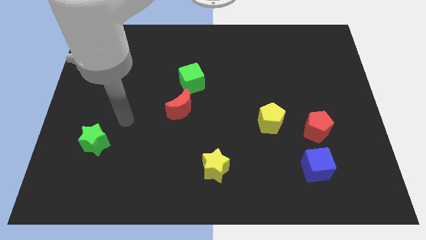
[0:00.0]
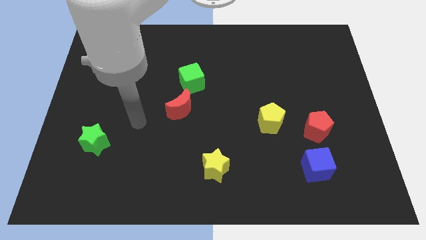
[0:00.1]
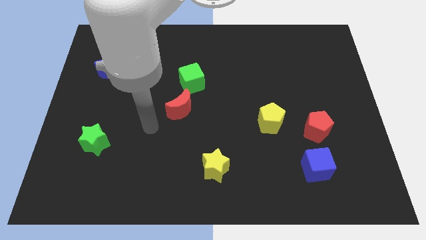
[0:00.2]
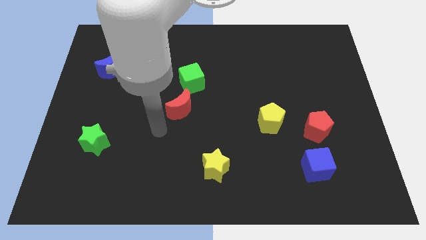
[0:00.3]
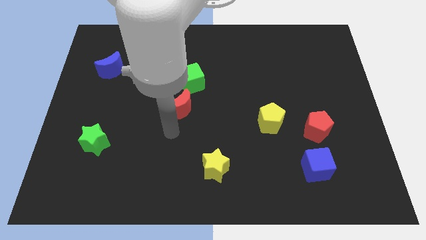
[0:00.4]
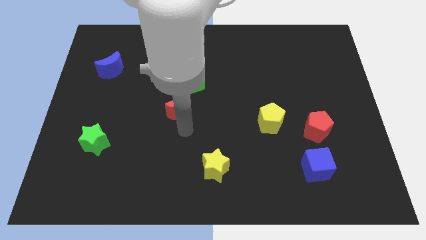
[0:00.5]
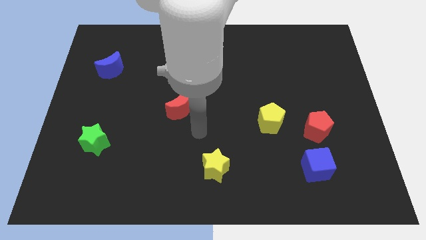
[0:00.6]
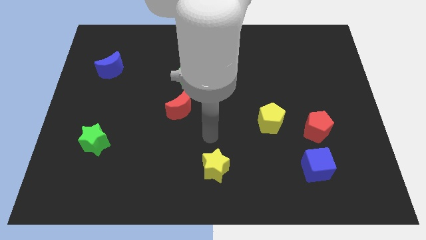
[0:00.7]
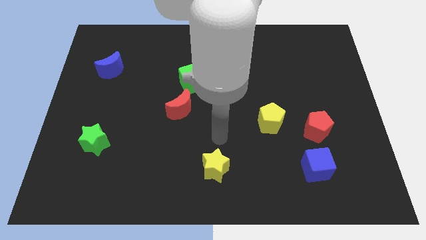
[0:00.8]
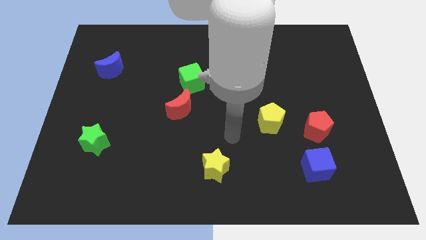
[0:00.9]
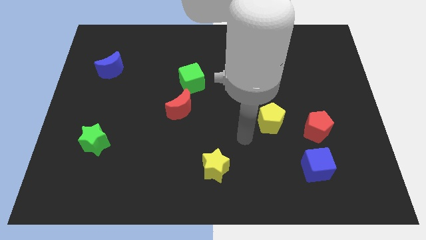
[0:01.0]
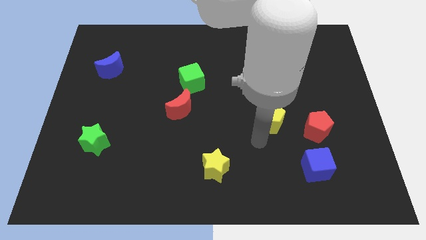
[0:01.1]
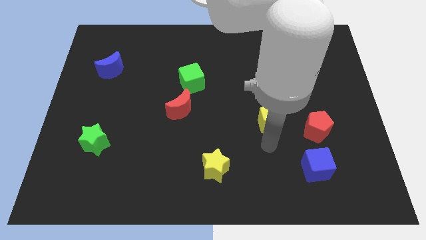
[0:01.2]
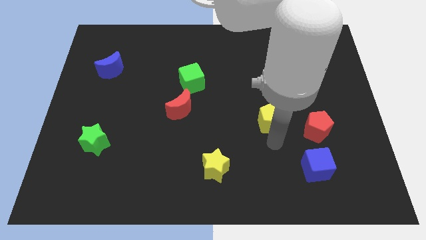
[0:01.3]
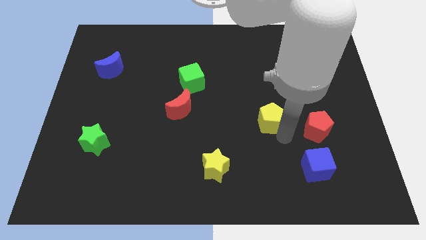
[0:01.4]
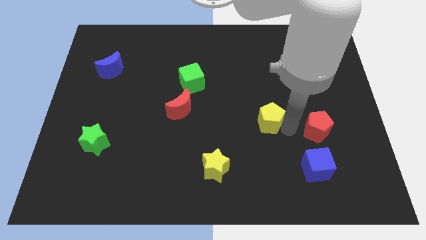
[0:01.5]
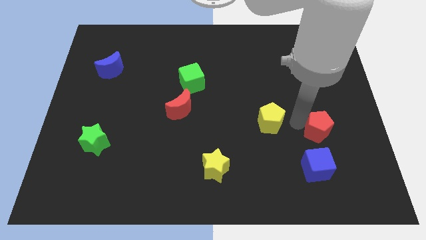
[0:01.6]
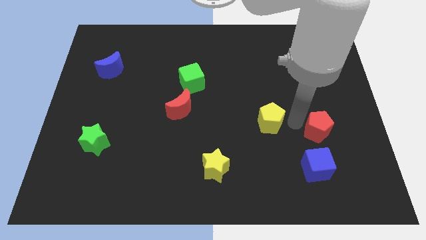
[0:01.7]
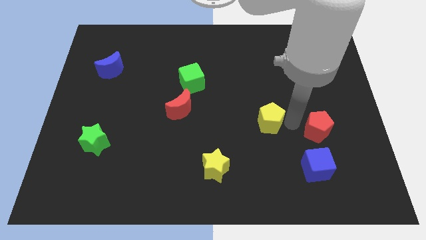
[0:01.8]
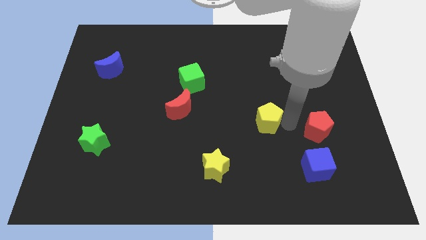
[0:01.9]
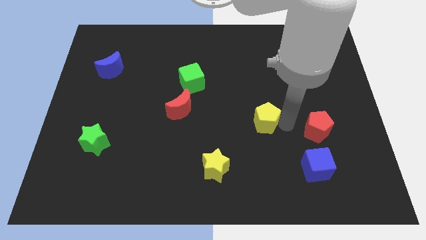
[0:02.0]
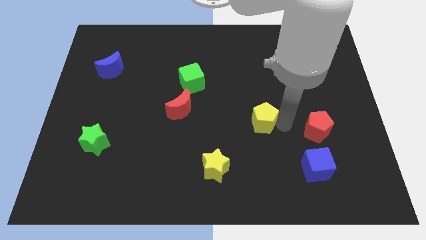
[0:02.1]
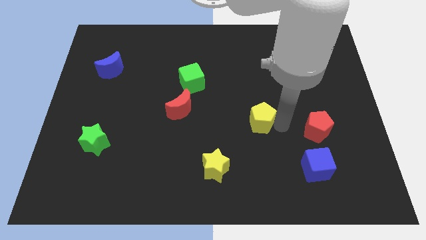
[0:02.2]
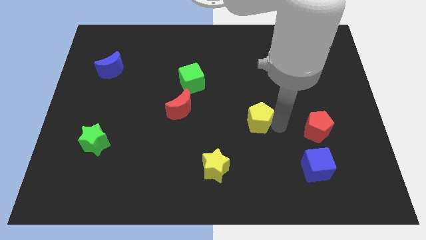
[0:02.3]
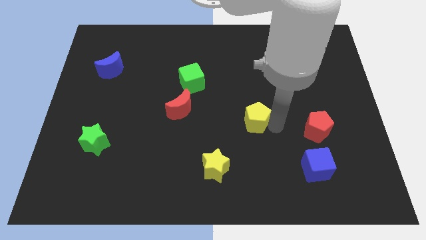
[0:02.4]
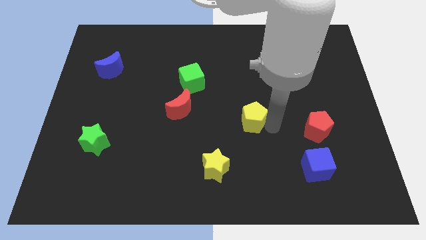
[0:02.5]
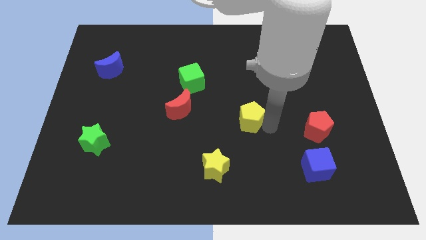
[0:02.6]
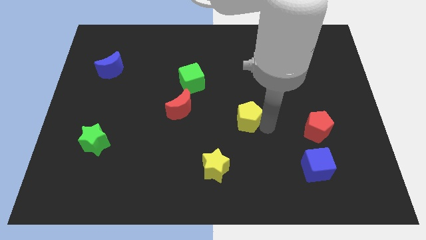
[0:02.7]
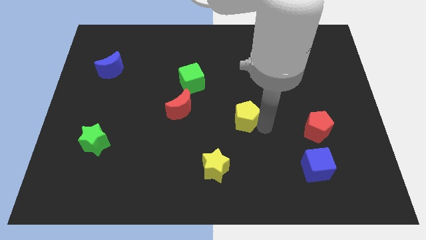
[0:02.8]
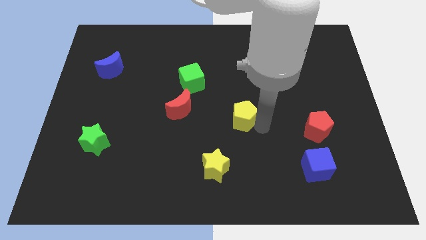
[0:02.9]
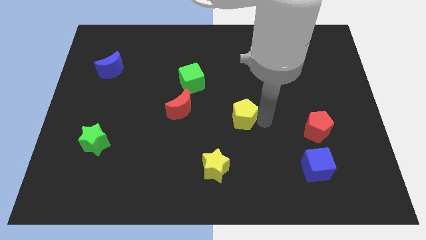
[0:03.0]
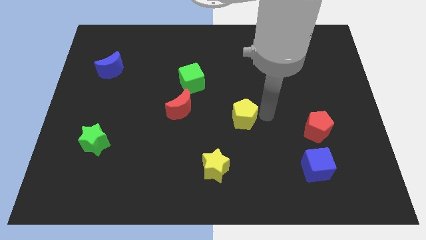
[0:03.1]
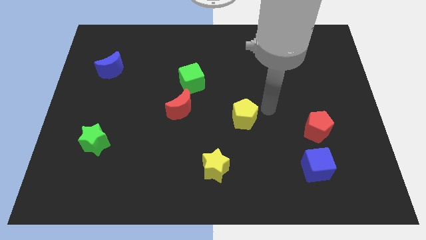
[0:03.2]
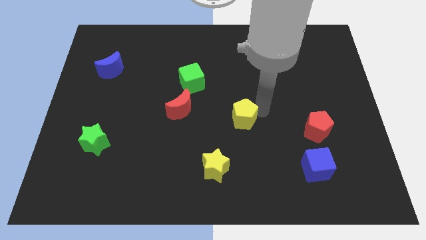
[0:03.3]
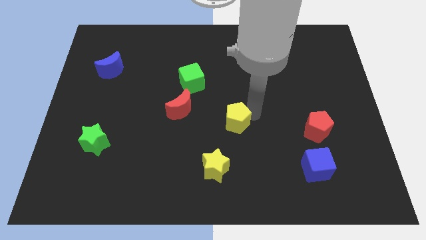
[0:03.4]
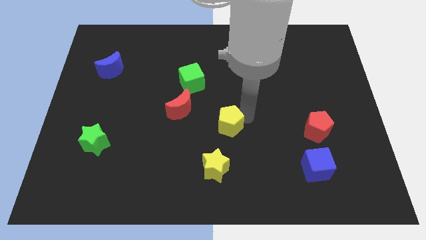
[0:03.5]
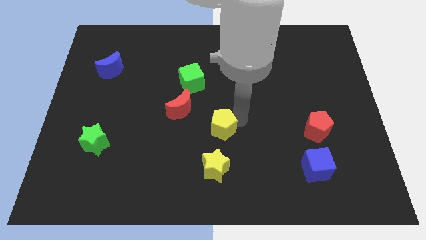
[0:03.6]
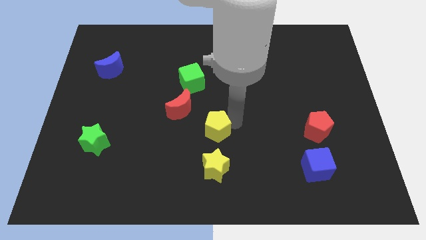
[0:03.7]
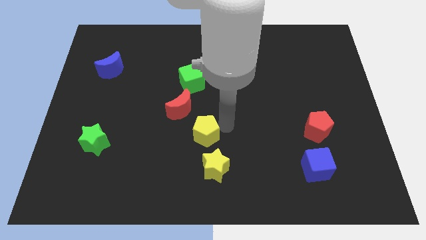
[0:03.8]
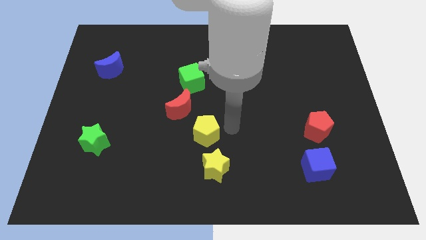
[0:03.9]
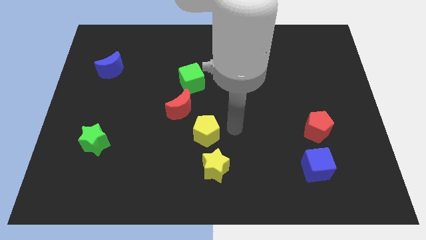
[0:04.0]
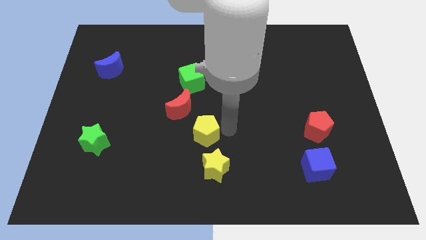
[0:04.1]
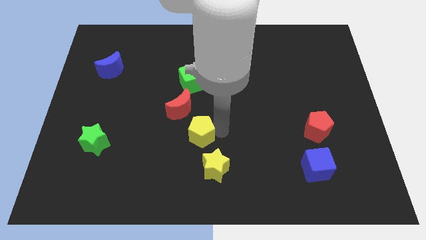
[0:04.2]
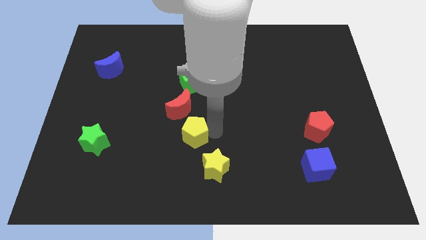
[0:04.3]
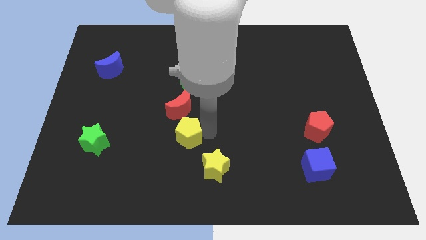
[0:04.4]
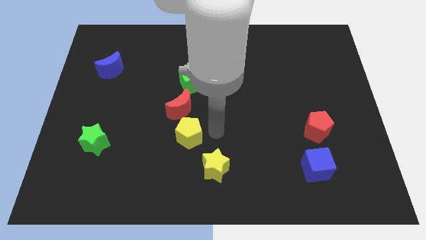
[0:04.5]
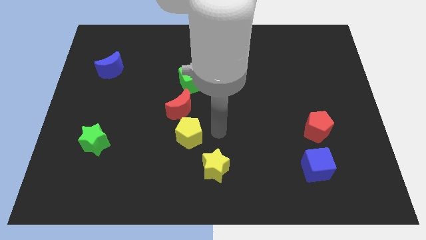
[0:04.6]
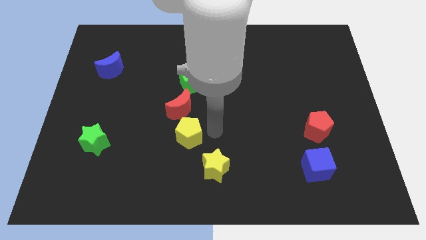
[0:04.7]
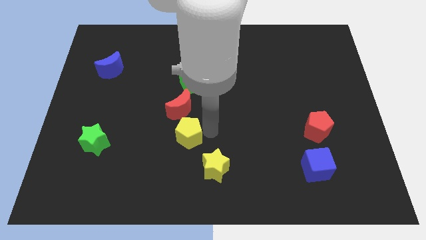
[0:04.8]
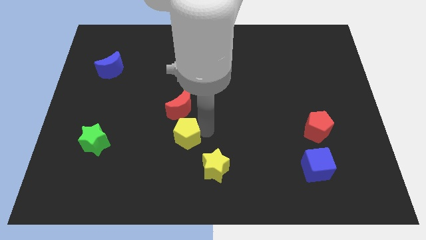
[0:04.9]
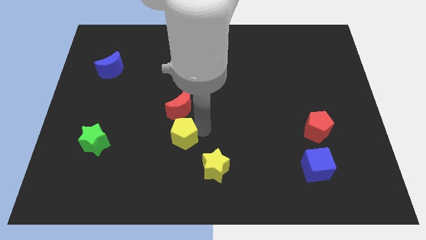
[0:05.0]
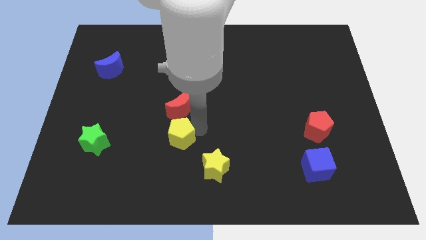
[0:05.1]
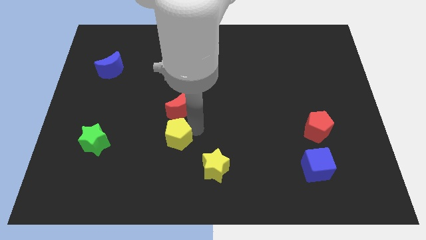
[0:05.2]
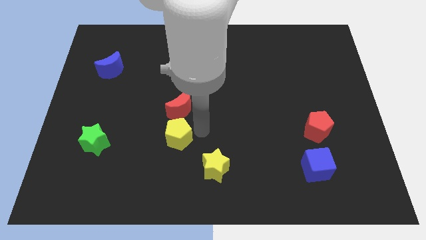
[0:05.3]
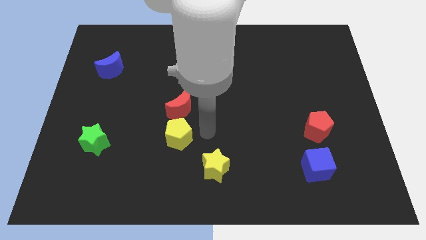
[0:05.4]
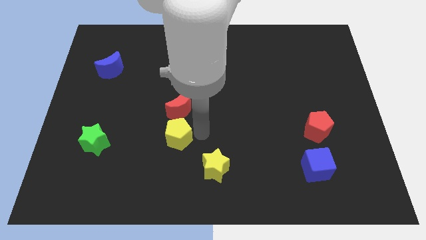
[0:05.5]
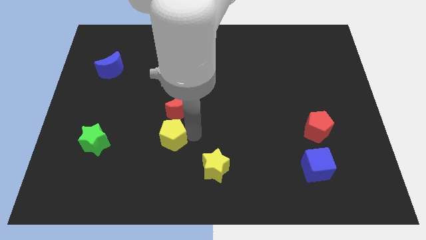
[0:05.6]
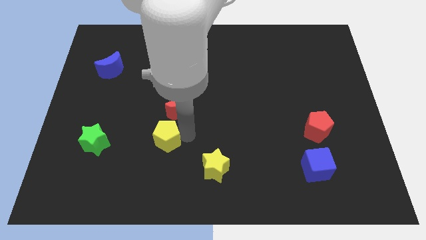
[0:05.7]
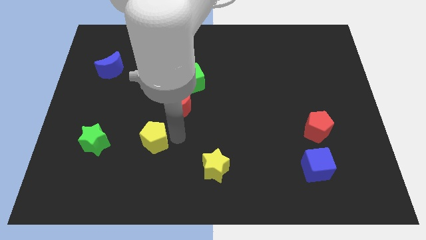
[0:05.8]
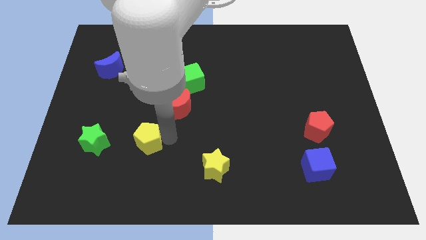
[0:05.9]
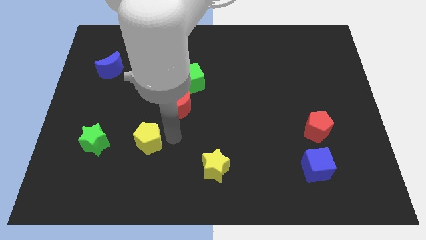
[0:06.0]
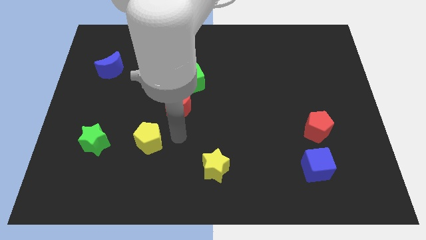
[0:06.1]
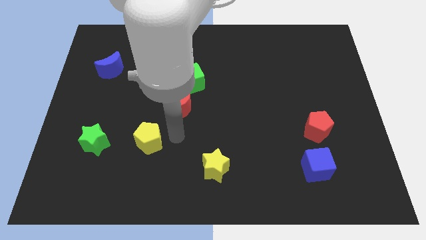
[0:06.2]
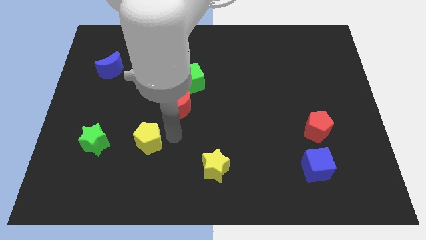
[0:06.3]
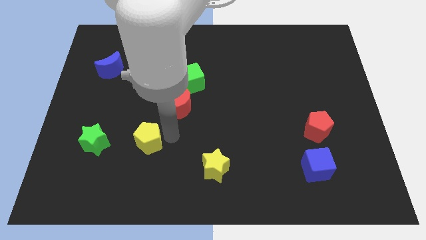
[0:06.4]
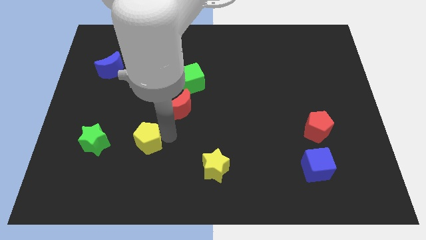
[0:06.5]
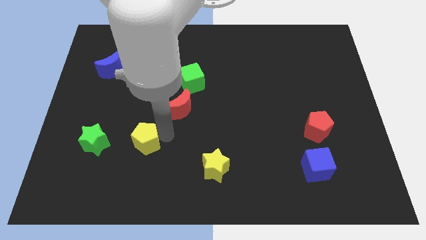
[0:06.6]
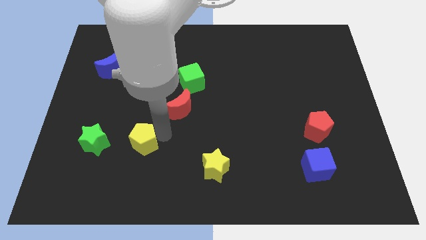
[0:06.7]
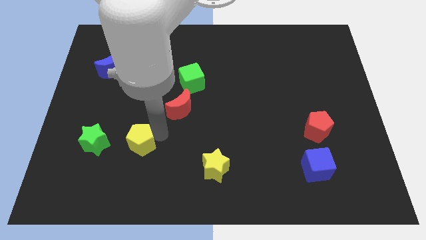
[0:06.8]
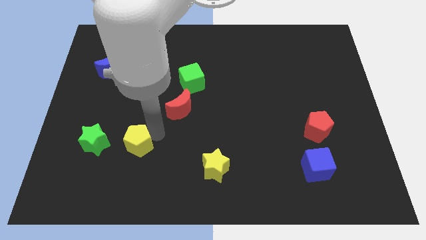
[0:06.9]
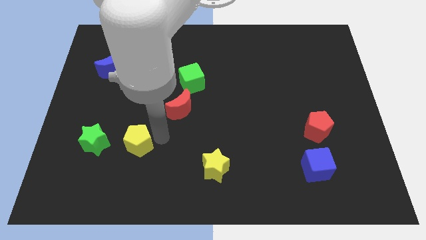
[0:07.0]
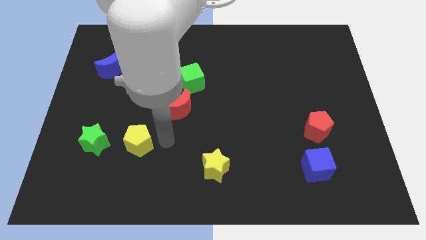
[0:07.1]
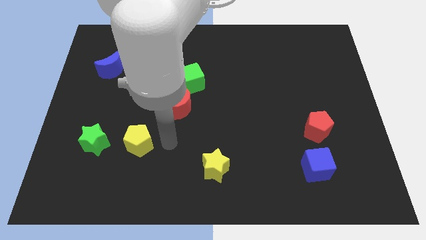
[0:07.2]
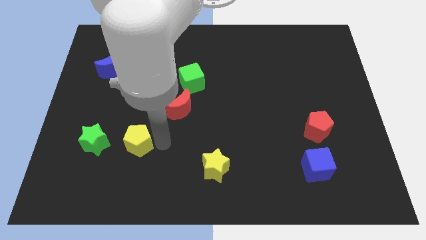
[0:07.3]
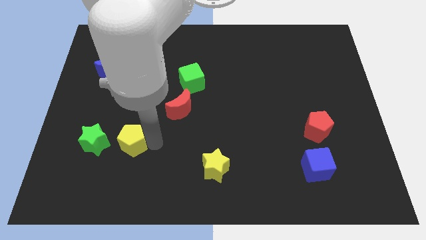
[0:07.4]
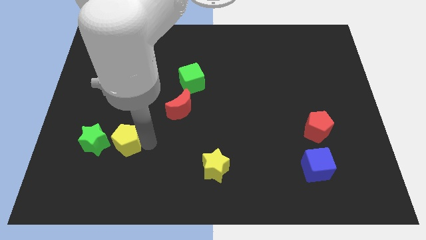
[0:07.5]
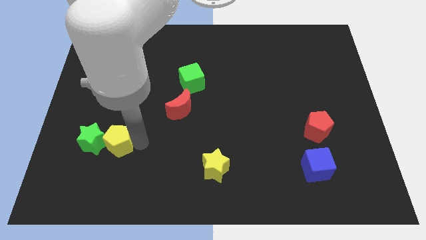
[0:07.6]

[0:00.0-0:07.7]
slide the yellow pentagon to the green star
